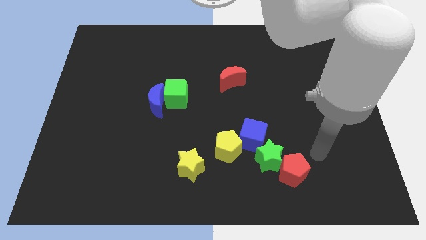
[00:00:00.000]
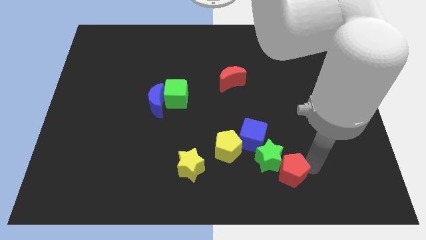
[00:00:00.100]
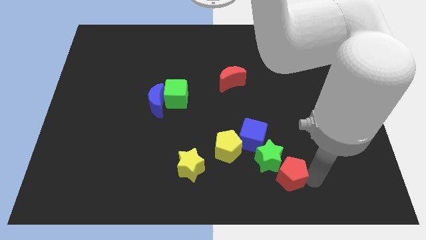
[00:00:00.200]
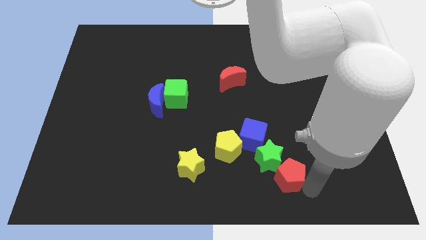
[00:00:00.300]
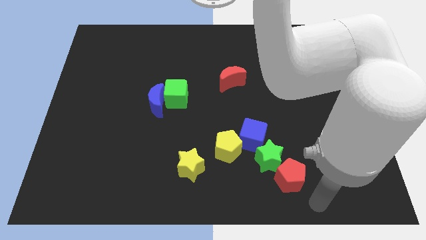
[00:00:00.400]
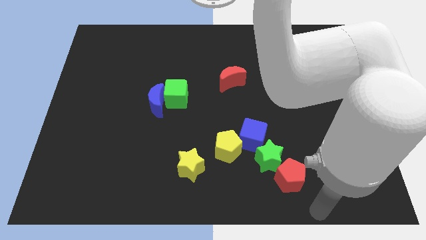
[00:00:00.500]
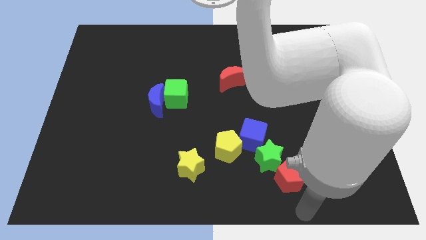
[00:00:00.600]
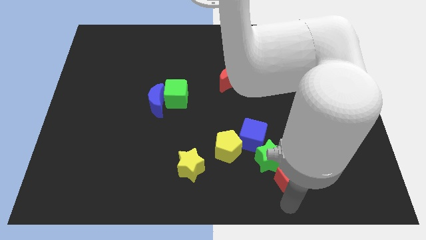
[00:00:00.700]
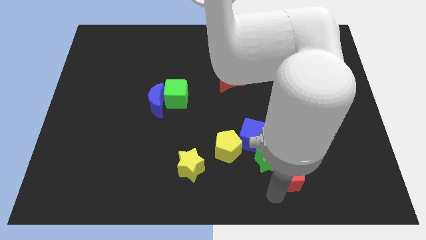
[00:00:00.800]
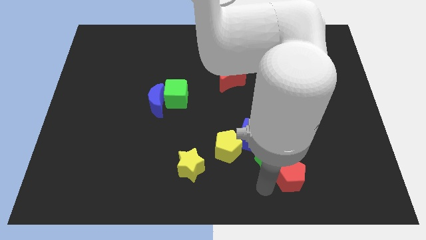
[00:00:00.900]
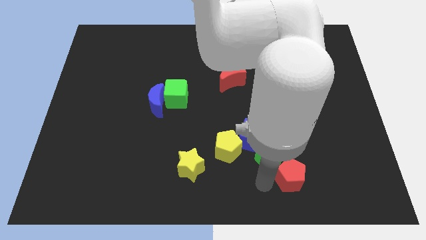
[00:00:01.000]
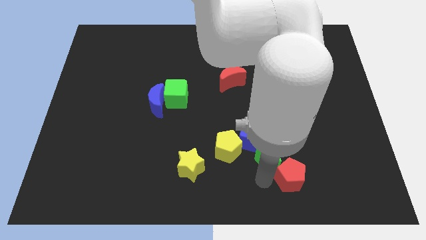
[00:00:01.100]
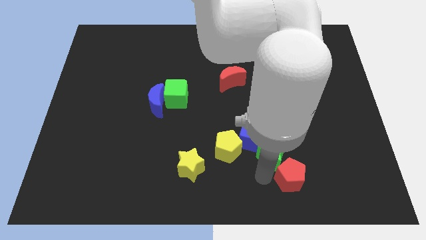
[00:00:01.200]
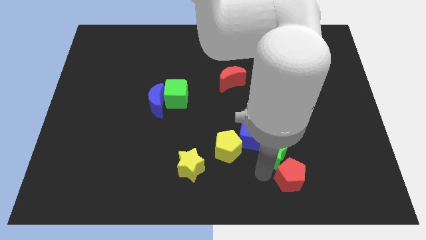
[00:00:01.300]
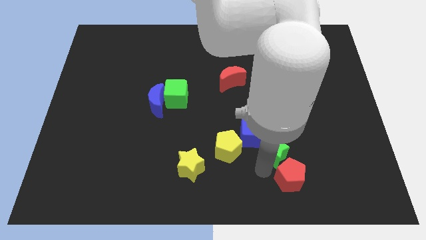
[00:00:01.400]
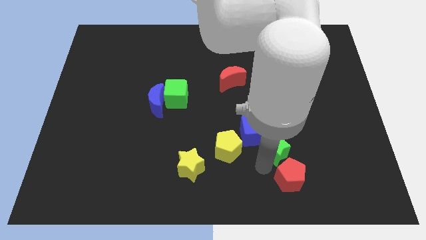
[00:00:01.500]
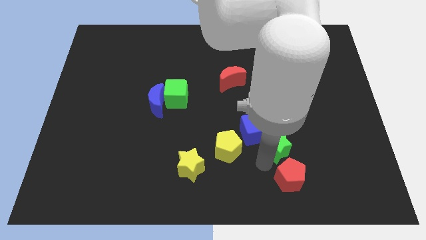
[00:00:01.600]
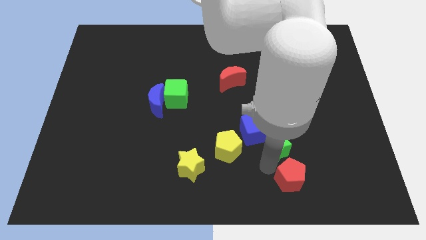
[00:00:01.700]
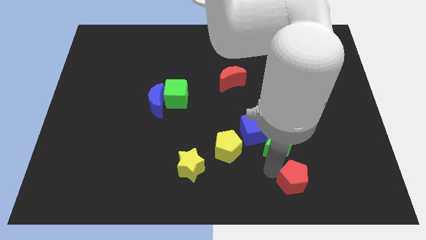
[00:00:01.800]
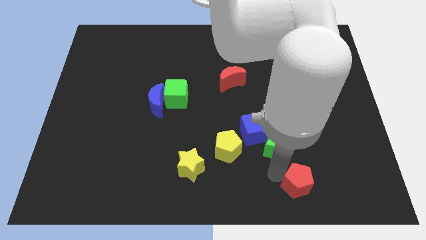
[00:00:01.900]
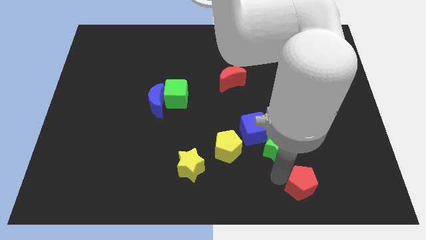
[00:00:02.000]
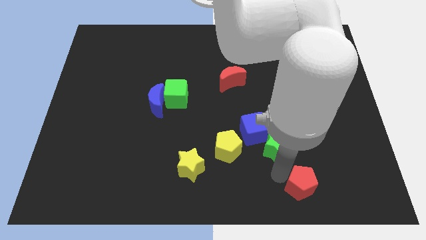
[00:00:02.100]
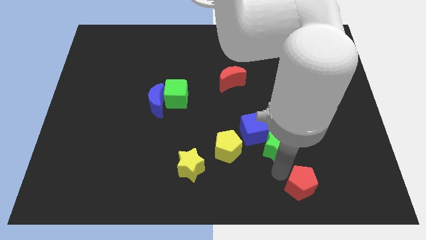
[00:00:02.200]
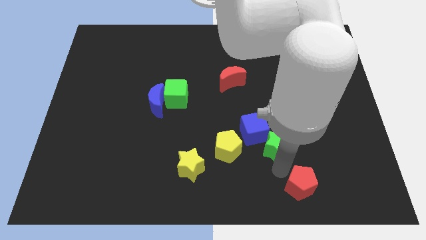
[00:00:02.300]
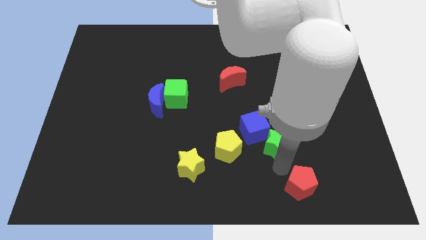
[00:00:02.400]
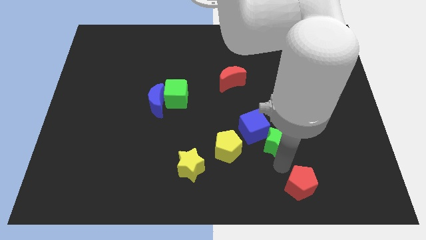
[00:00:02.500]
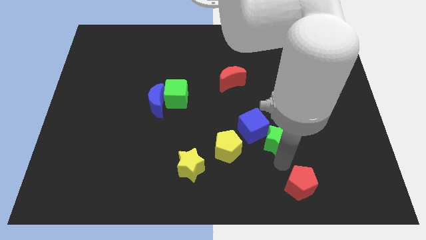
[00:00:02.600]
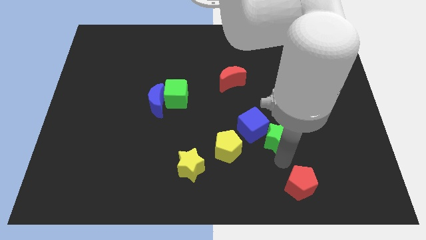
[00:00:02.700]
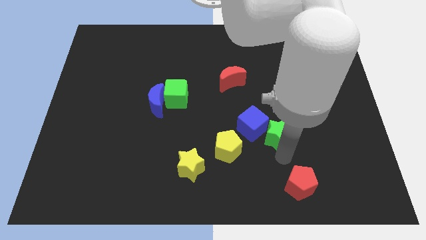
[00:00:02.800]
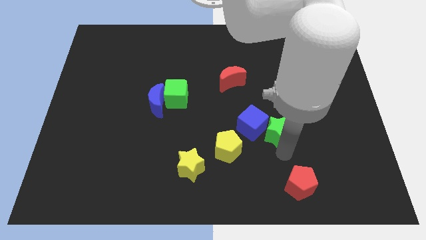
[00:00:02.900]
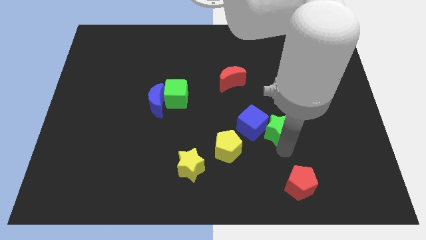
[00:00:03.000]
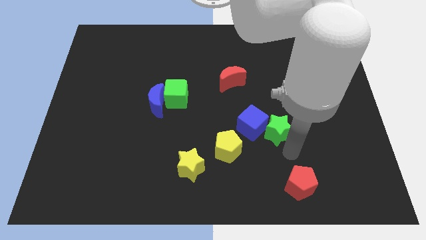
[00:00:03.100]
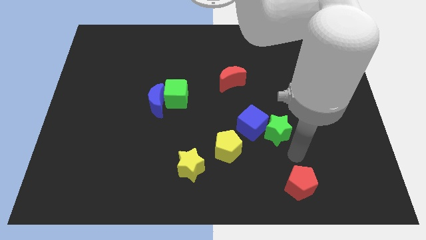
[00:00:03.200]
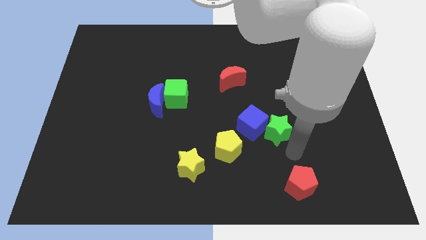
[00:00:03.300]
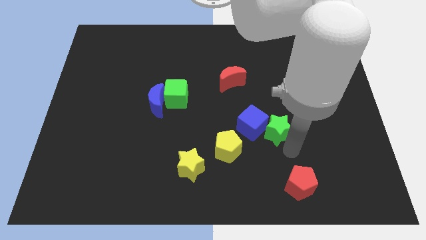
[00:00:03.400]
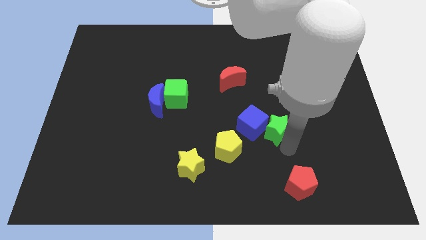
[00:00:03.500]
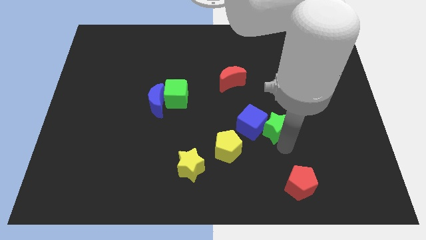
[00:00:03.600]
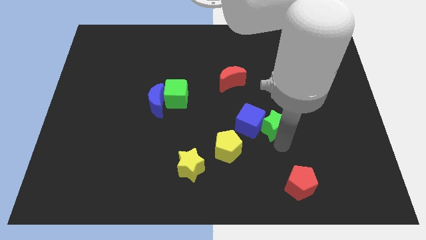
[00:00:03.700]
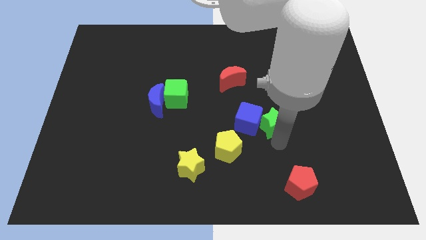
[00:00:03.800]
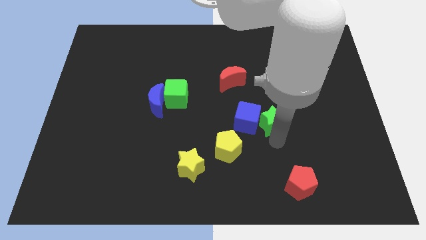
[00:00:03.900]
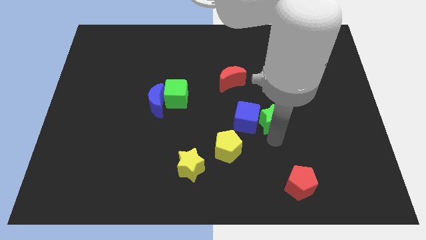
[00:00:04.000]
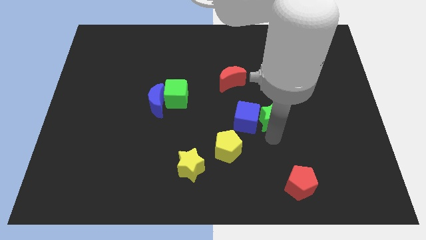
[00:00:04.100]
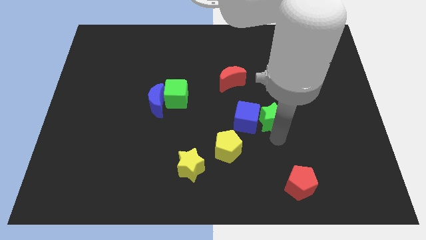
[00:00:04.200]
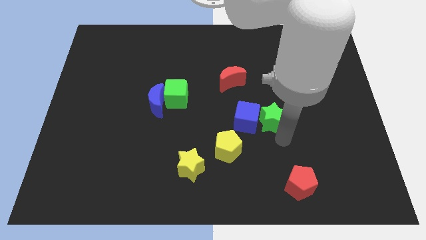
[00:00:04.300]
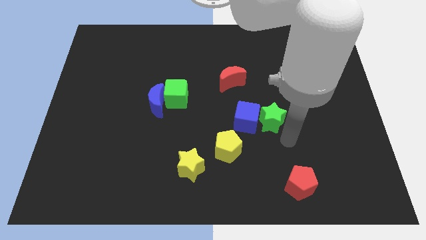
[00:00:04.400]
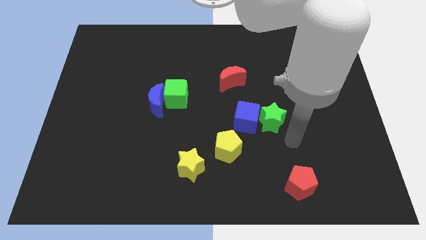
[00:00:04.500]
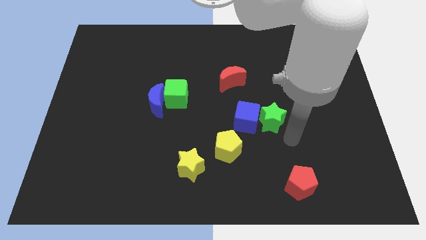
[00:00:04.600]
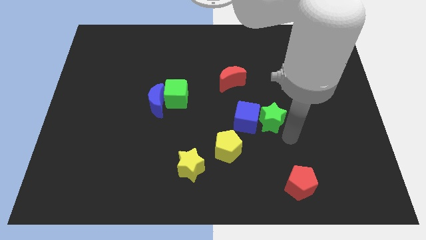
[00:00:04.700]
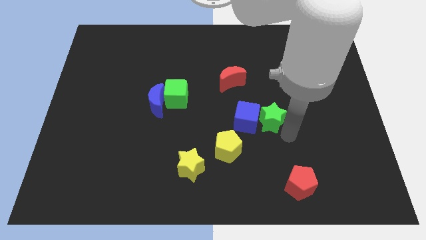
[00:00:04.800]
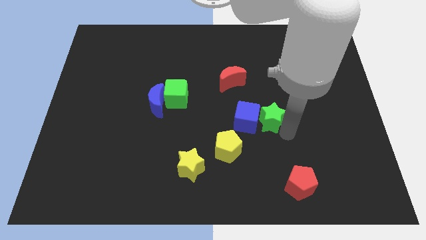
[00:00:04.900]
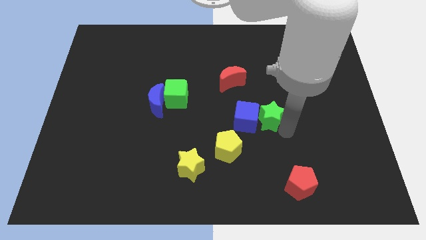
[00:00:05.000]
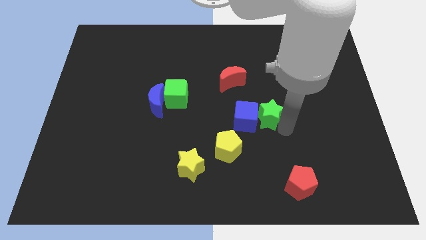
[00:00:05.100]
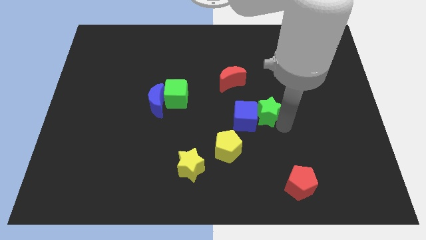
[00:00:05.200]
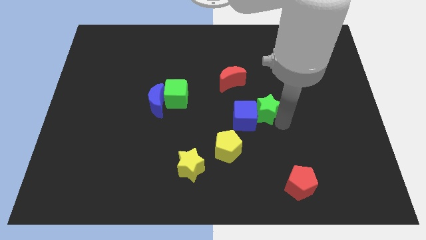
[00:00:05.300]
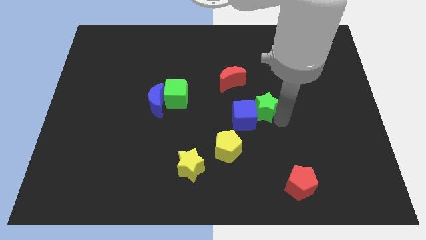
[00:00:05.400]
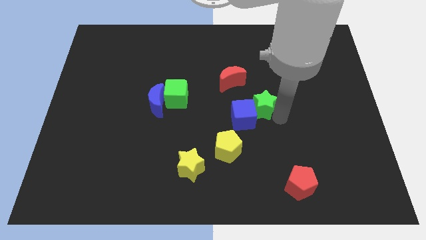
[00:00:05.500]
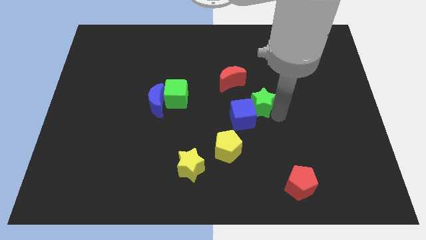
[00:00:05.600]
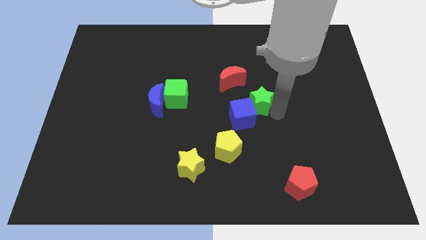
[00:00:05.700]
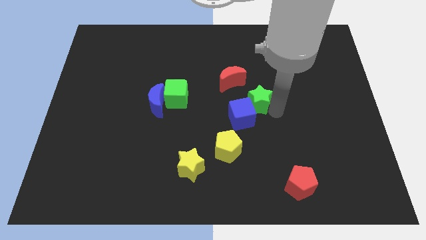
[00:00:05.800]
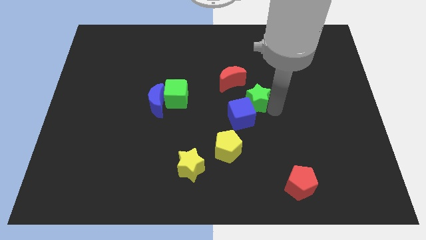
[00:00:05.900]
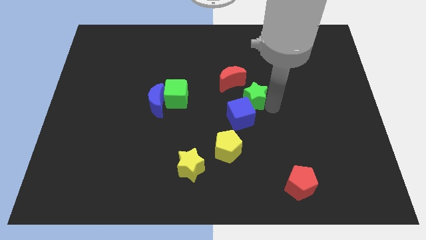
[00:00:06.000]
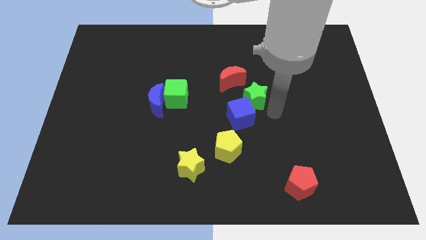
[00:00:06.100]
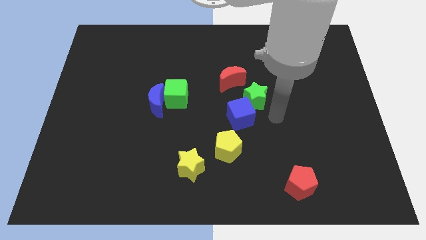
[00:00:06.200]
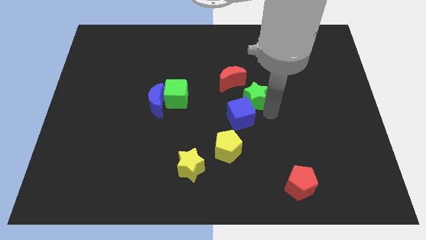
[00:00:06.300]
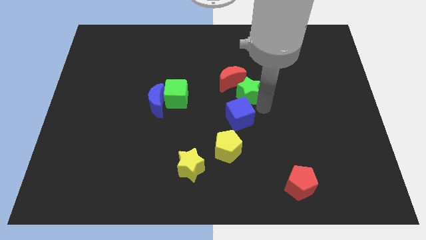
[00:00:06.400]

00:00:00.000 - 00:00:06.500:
push the green star towards the red moon
